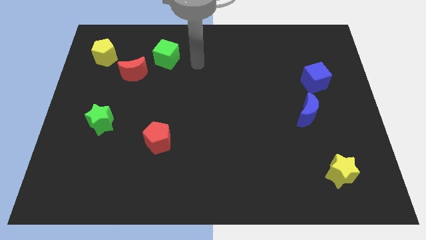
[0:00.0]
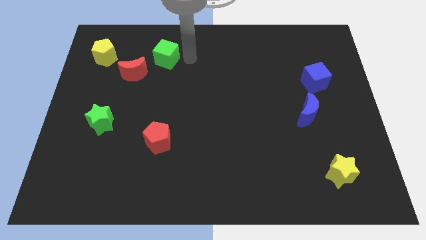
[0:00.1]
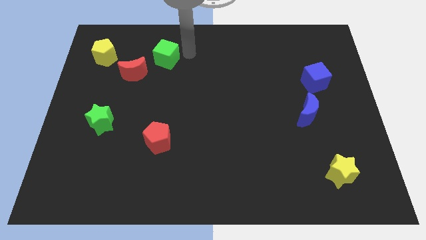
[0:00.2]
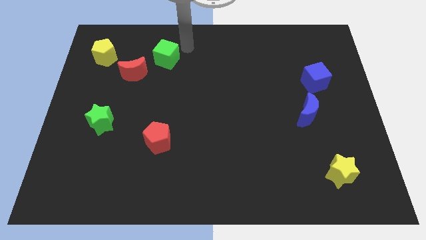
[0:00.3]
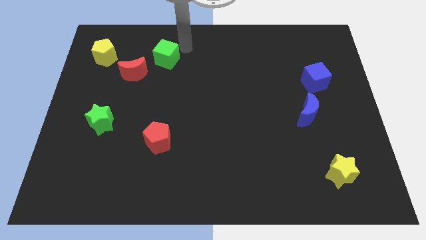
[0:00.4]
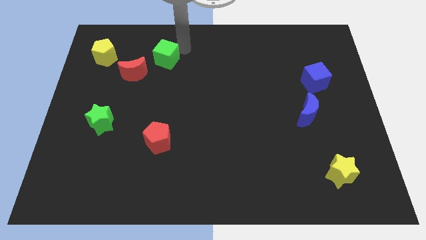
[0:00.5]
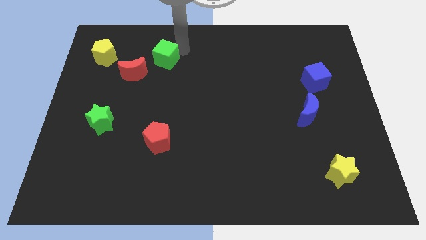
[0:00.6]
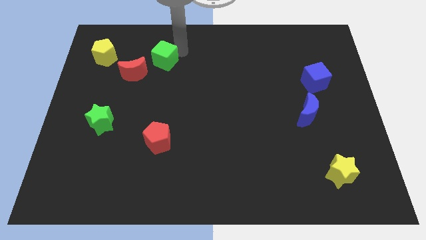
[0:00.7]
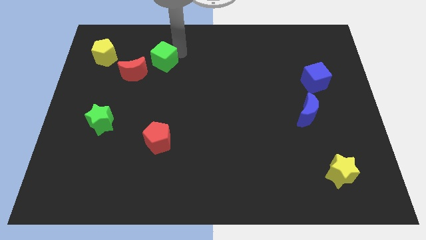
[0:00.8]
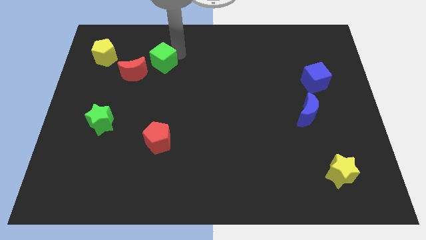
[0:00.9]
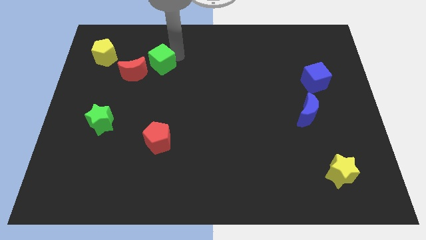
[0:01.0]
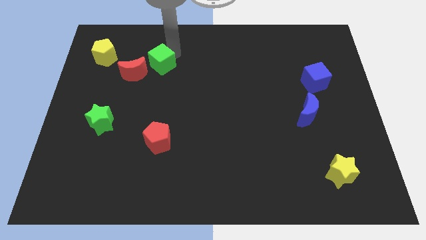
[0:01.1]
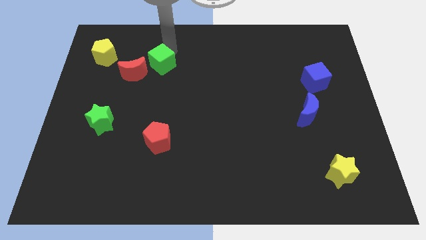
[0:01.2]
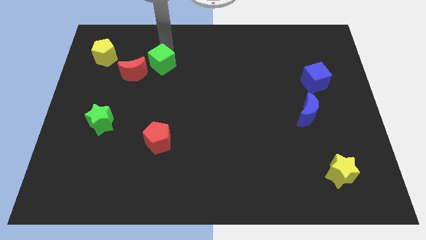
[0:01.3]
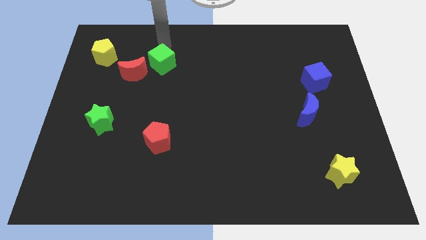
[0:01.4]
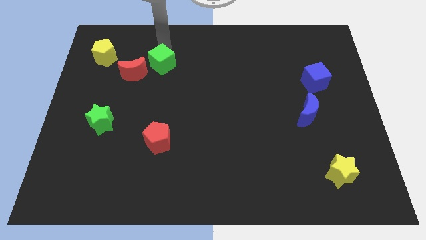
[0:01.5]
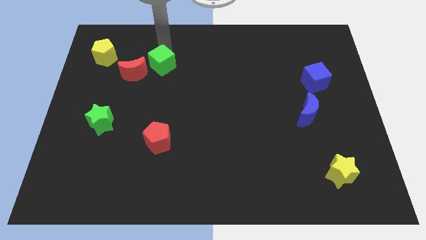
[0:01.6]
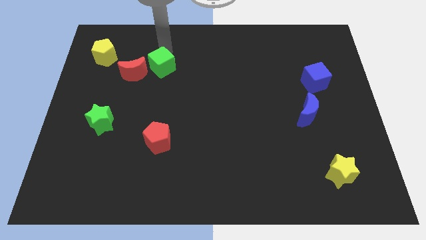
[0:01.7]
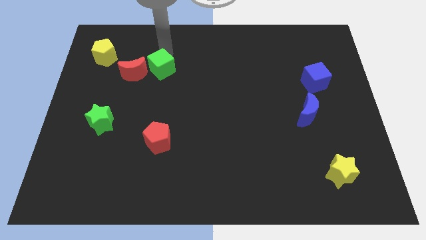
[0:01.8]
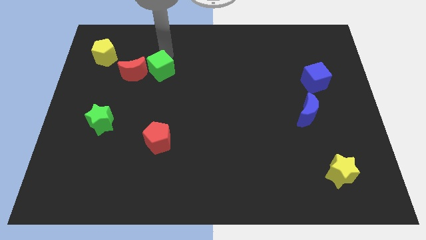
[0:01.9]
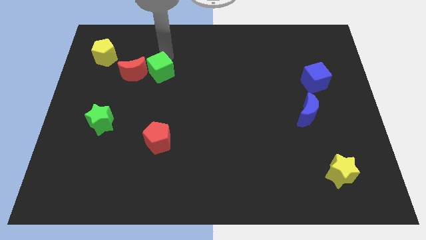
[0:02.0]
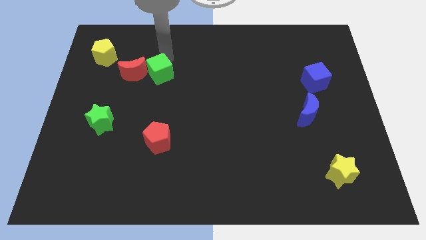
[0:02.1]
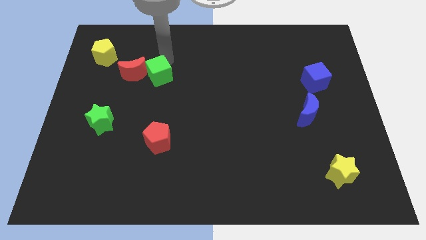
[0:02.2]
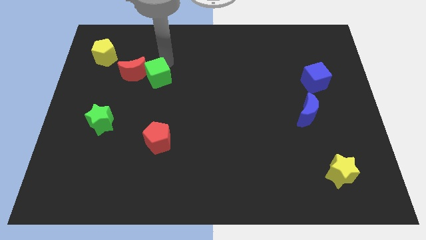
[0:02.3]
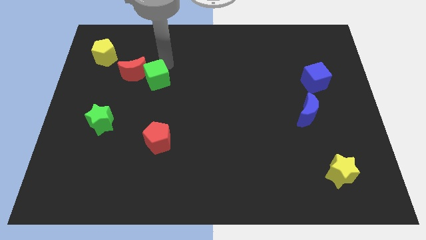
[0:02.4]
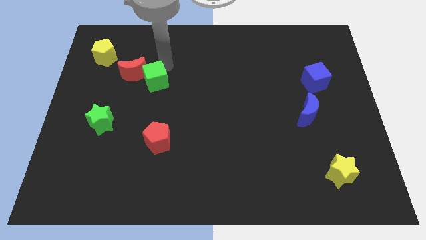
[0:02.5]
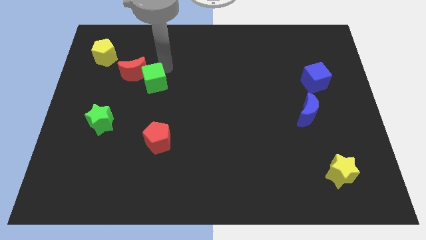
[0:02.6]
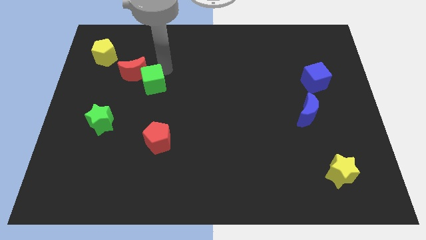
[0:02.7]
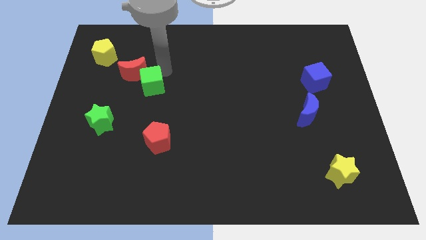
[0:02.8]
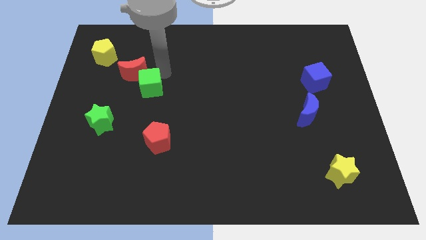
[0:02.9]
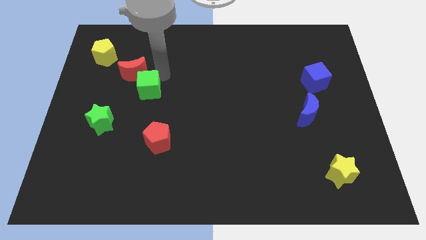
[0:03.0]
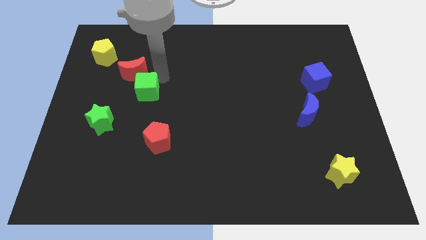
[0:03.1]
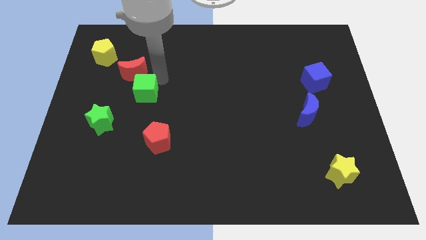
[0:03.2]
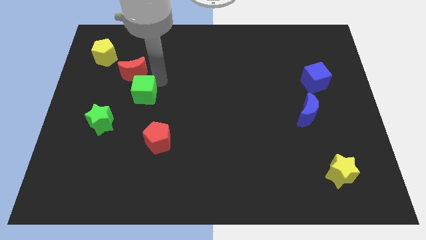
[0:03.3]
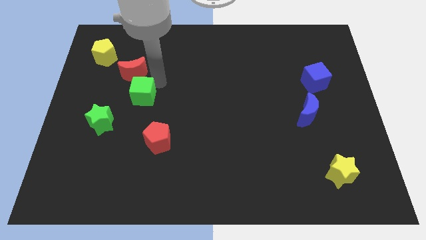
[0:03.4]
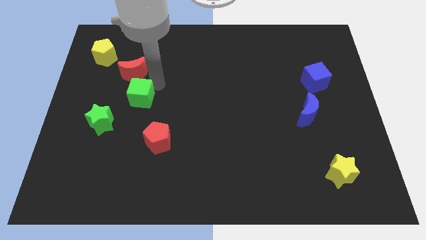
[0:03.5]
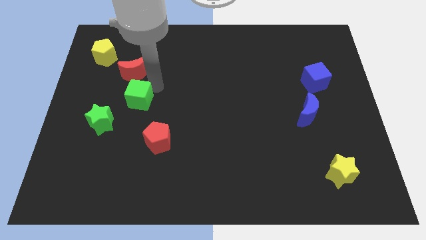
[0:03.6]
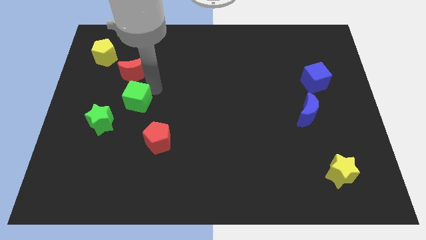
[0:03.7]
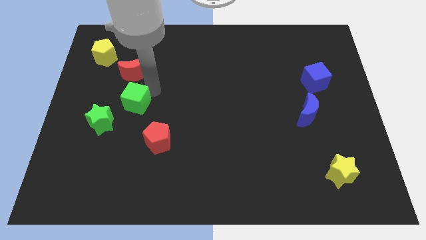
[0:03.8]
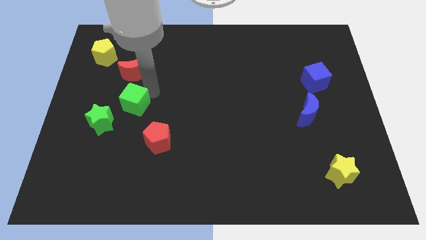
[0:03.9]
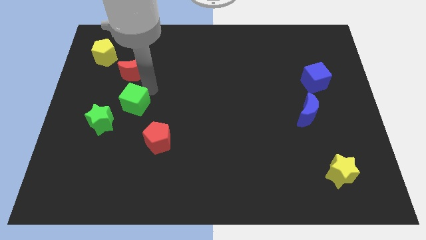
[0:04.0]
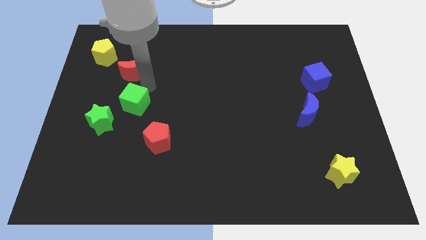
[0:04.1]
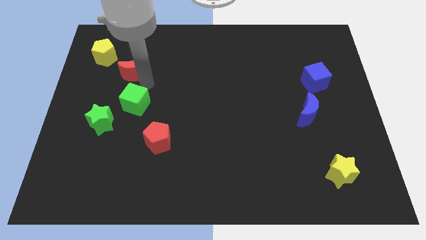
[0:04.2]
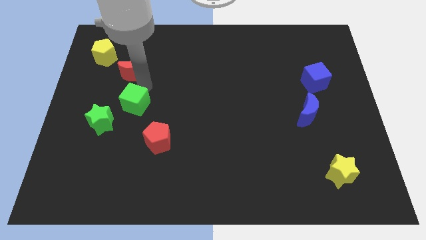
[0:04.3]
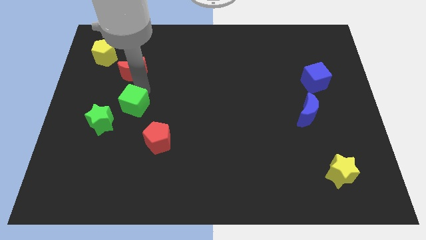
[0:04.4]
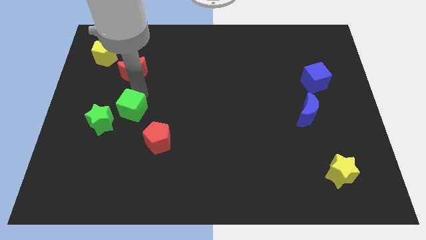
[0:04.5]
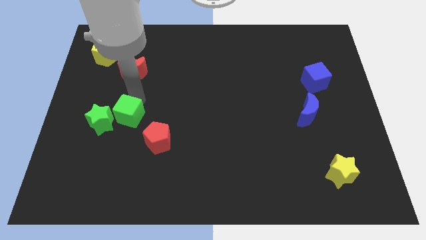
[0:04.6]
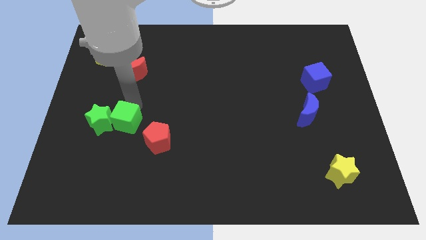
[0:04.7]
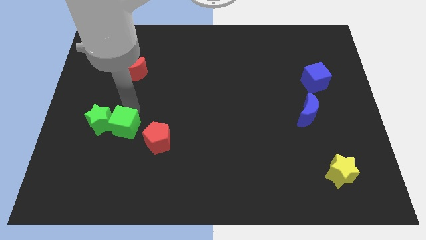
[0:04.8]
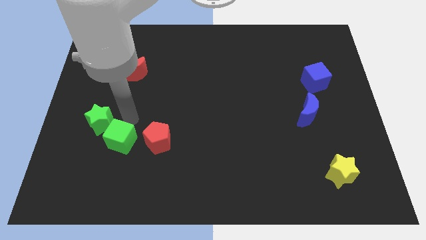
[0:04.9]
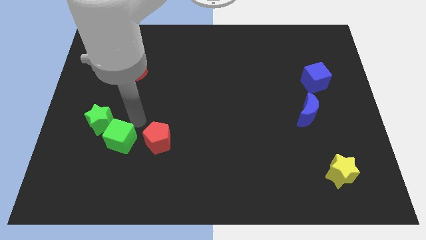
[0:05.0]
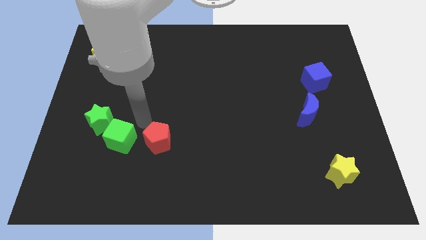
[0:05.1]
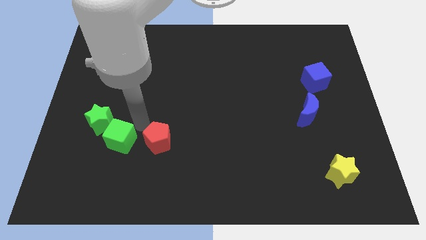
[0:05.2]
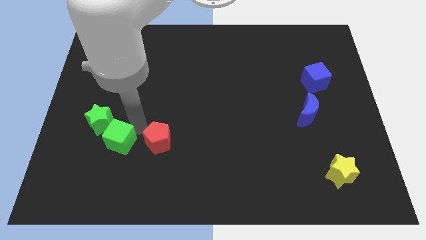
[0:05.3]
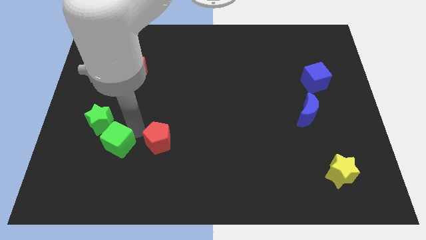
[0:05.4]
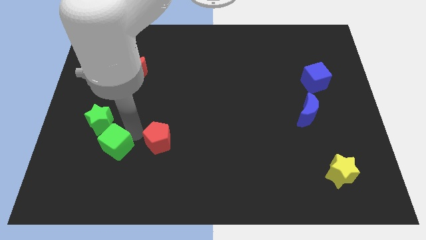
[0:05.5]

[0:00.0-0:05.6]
slide the green cube to the bottom of the green star

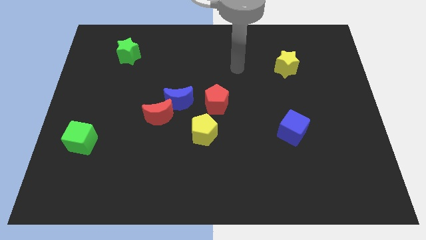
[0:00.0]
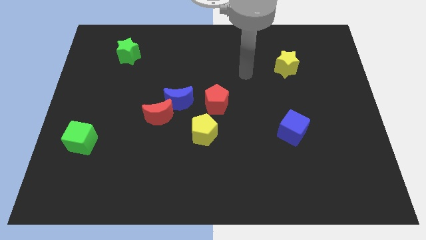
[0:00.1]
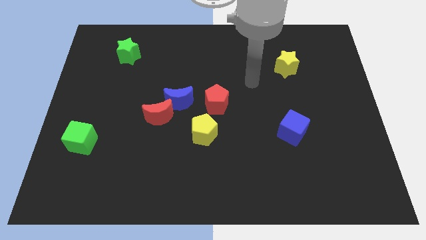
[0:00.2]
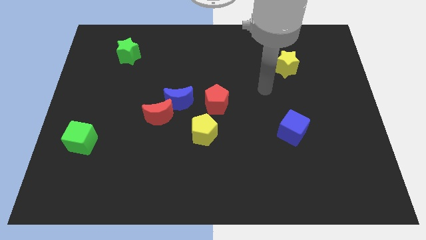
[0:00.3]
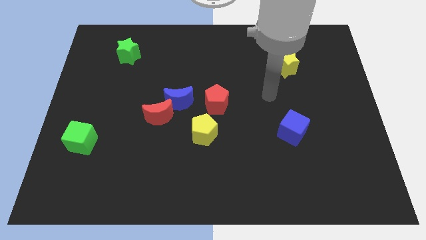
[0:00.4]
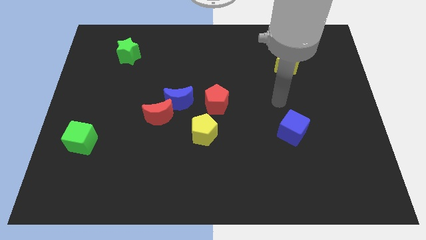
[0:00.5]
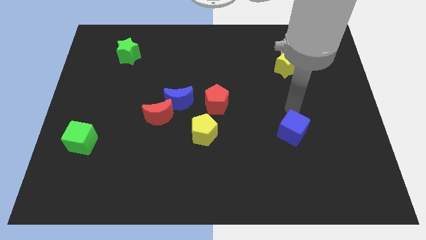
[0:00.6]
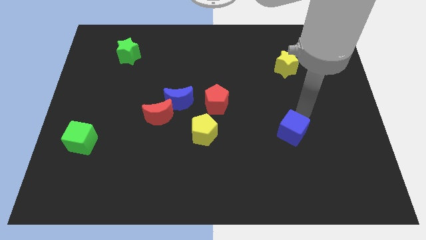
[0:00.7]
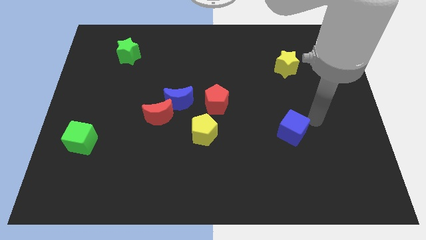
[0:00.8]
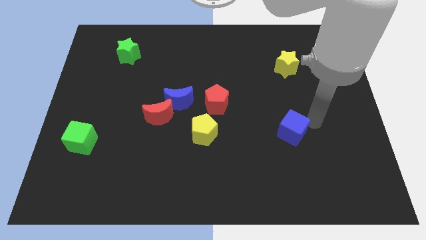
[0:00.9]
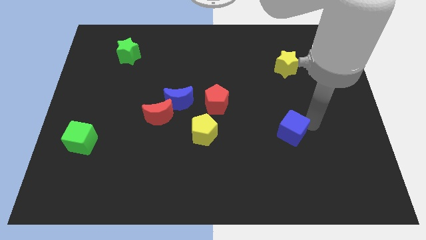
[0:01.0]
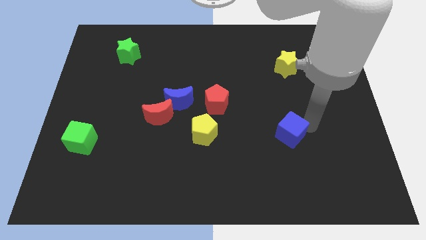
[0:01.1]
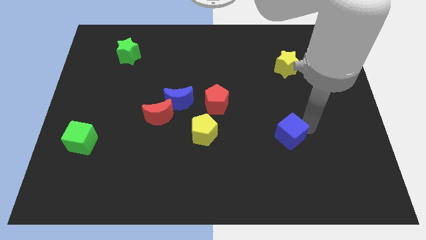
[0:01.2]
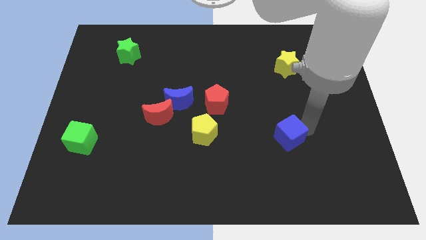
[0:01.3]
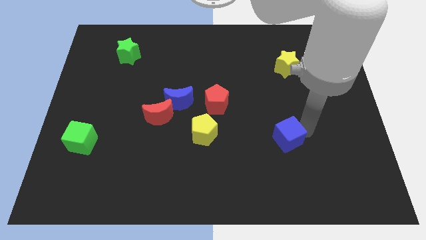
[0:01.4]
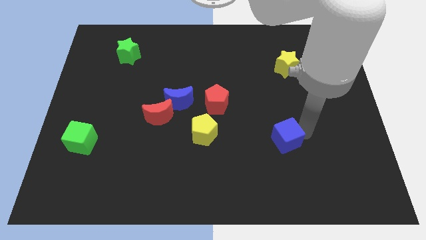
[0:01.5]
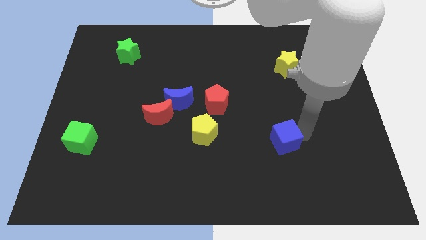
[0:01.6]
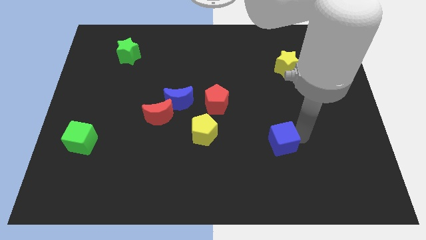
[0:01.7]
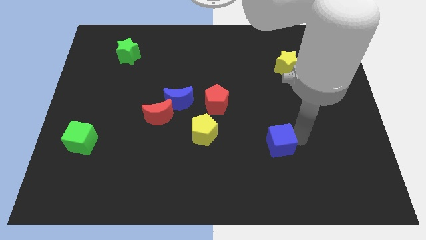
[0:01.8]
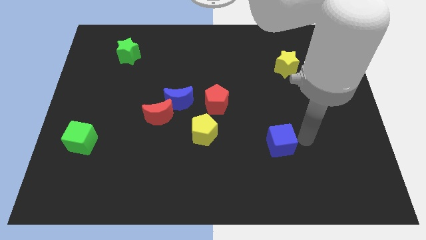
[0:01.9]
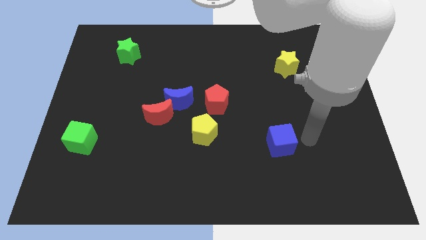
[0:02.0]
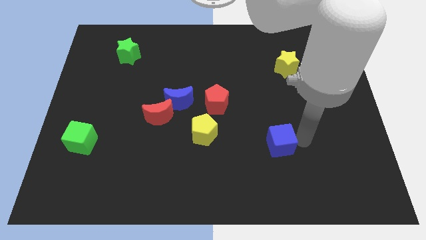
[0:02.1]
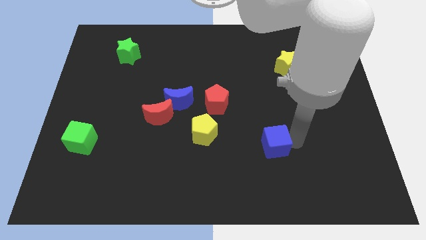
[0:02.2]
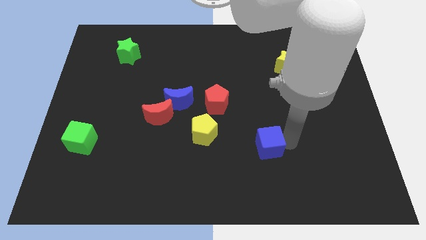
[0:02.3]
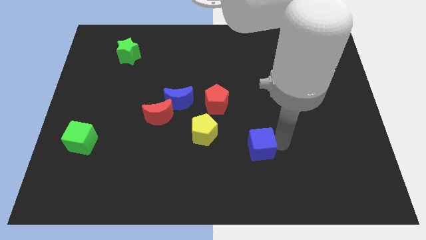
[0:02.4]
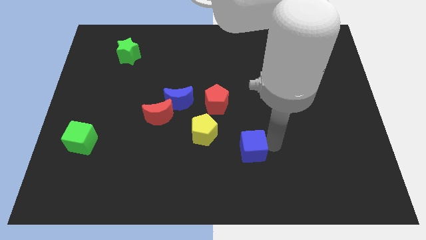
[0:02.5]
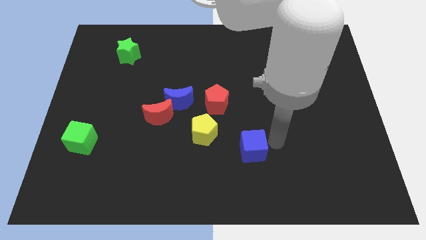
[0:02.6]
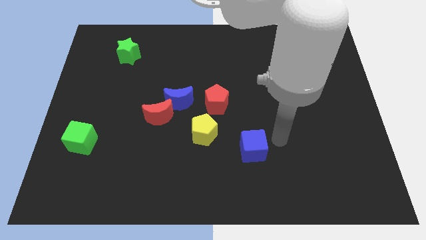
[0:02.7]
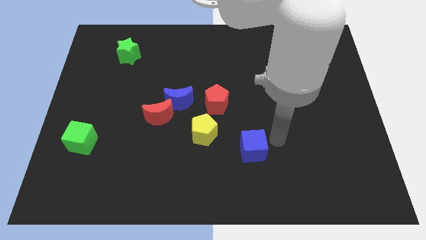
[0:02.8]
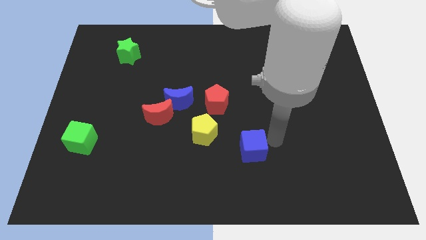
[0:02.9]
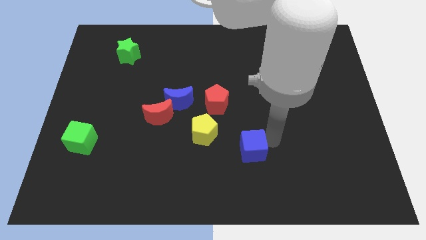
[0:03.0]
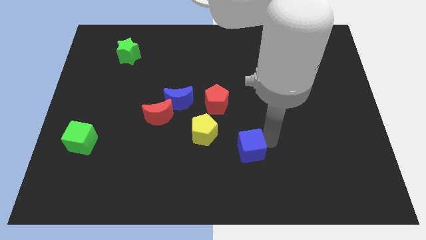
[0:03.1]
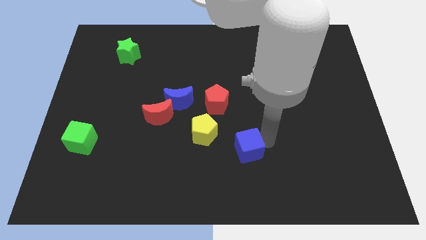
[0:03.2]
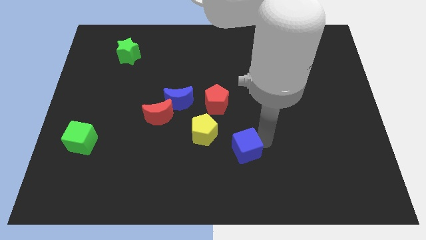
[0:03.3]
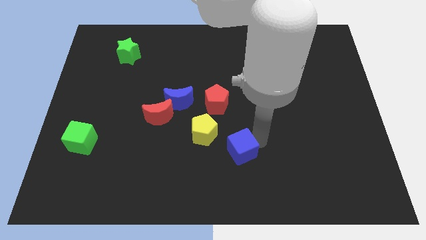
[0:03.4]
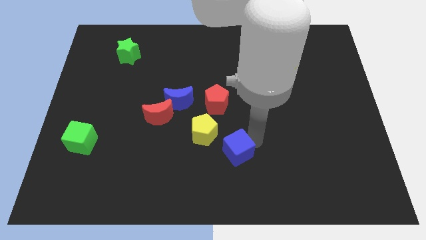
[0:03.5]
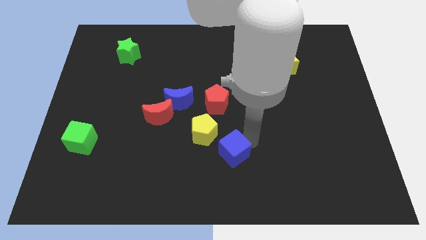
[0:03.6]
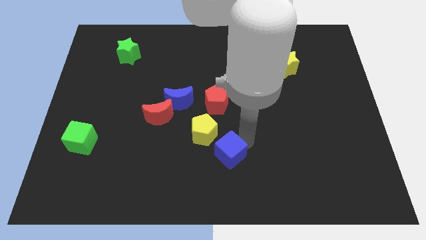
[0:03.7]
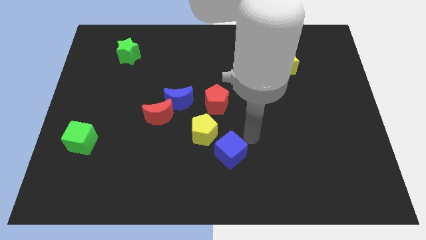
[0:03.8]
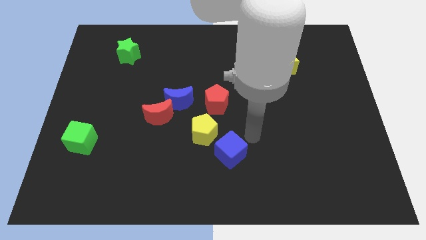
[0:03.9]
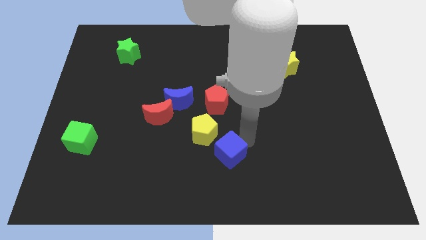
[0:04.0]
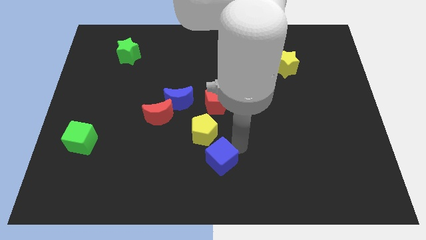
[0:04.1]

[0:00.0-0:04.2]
slide the blue cube to the bottom side of the yellow pentagon
